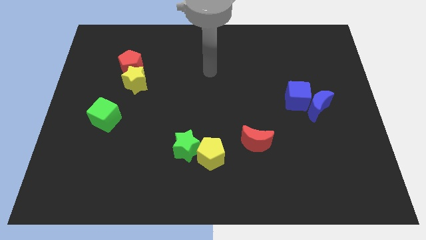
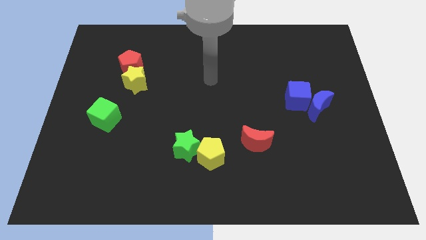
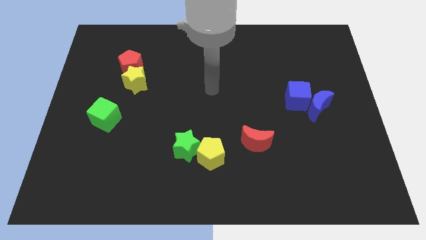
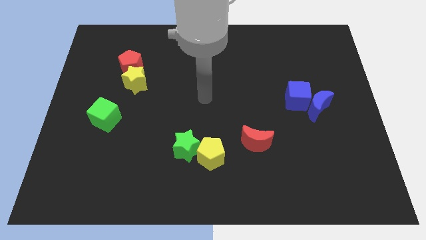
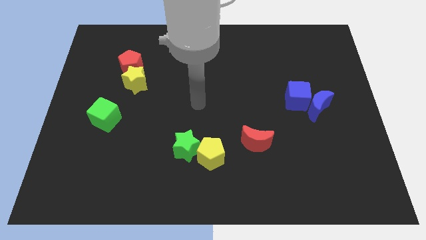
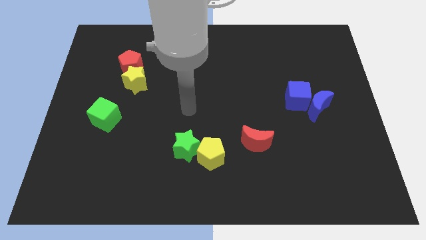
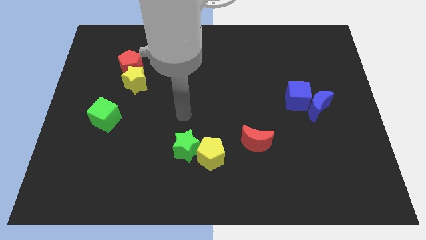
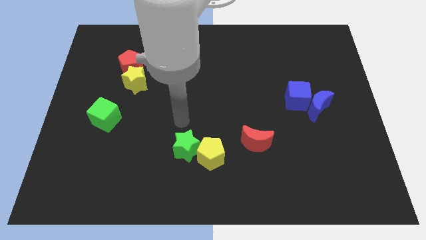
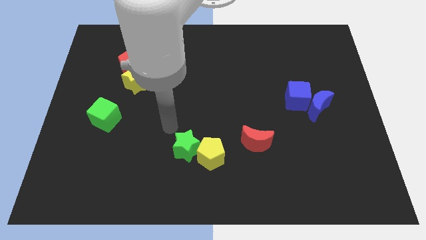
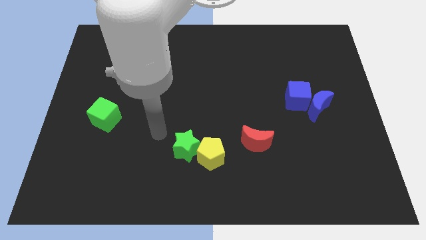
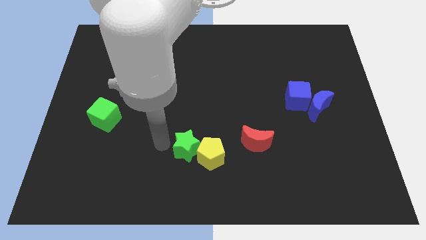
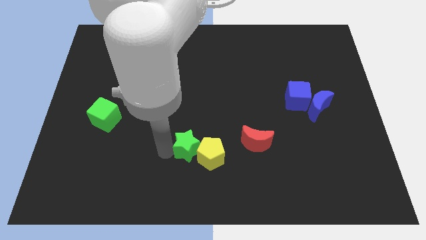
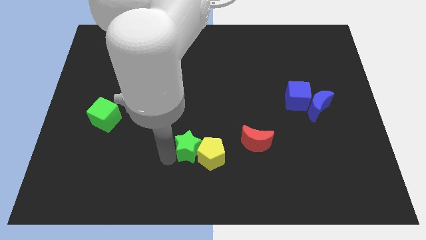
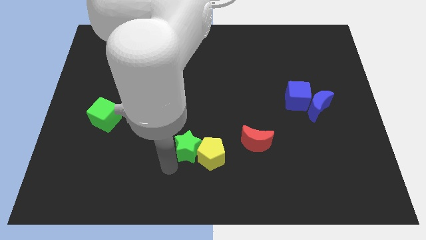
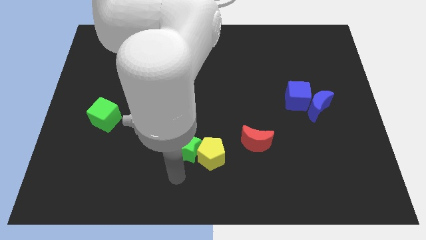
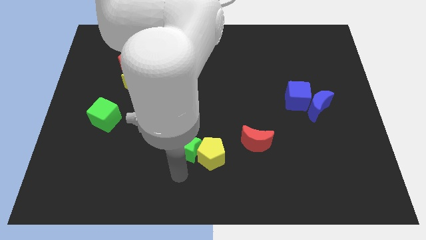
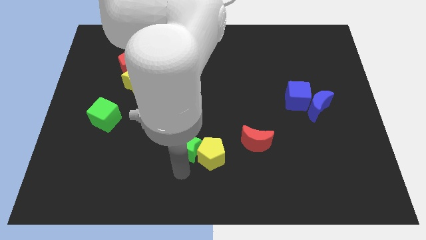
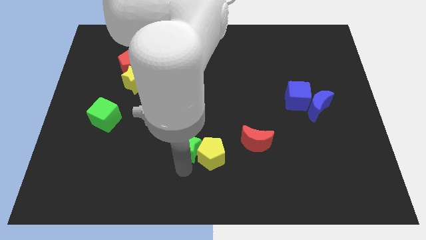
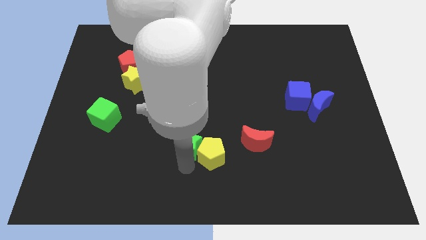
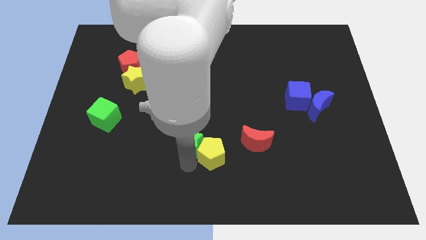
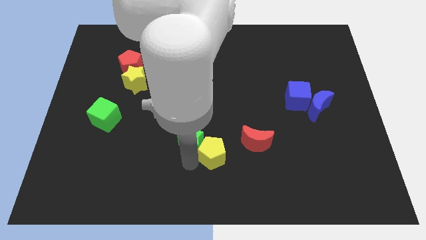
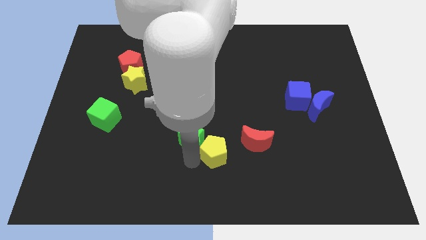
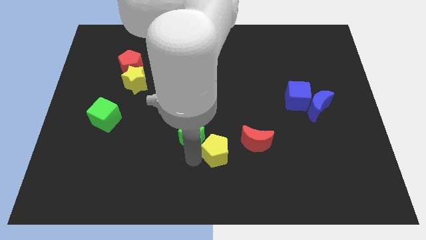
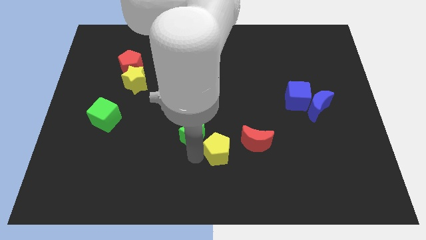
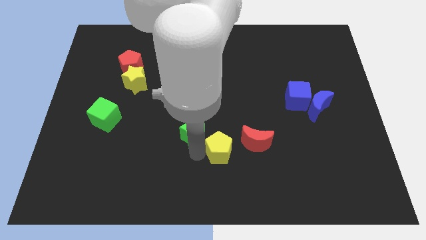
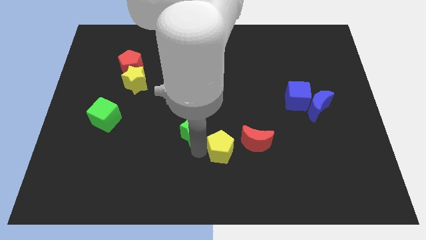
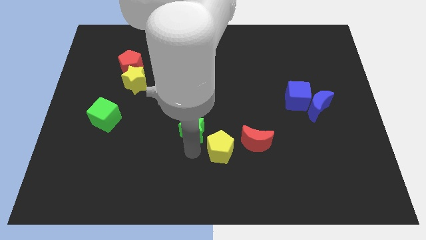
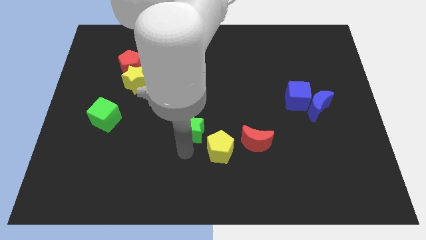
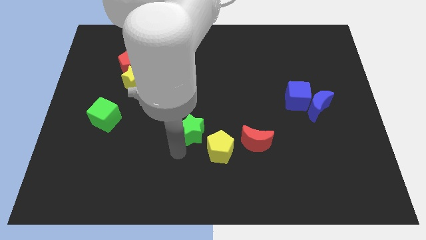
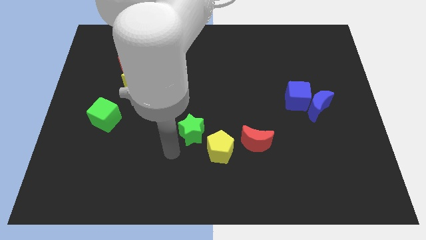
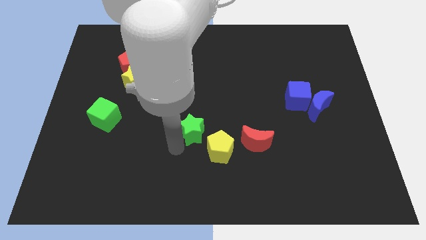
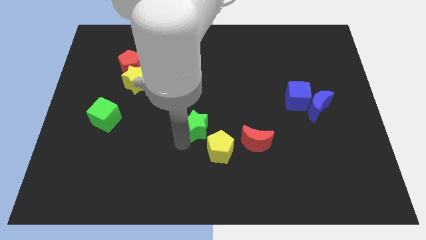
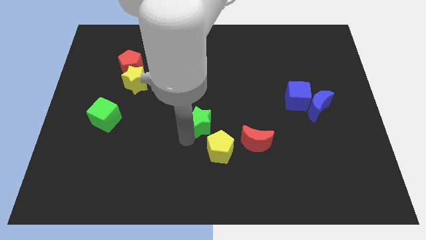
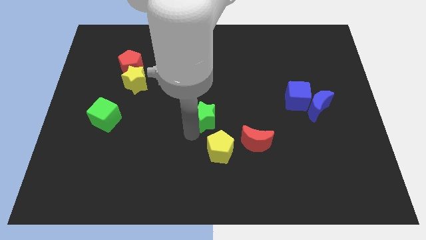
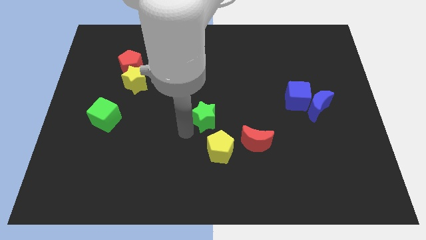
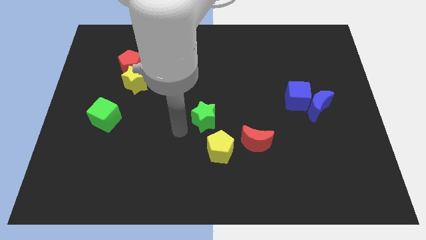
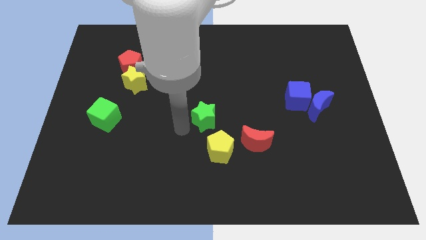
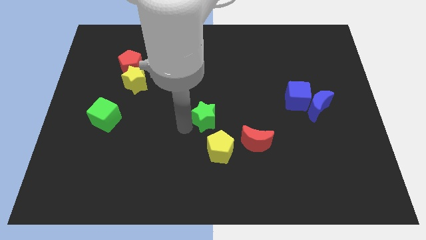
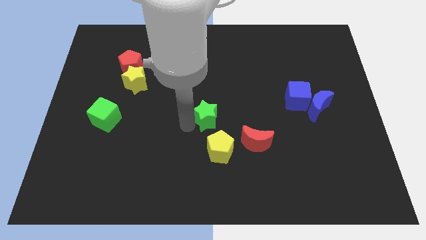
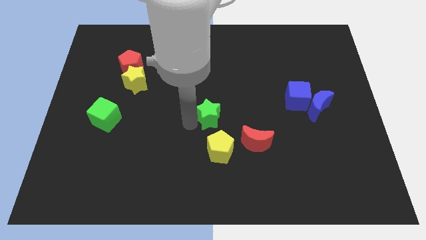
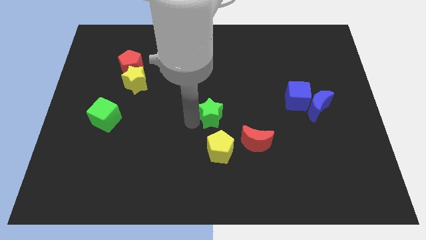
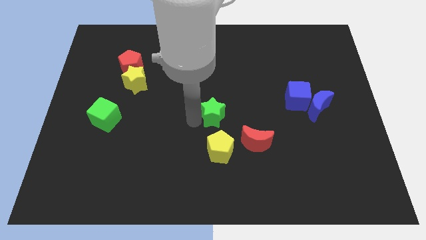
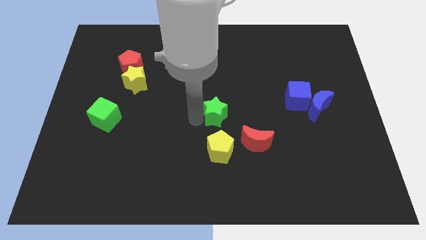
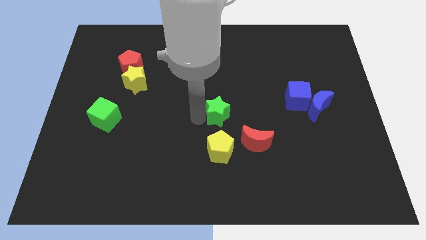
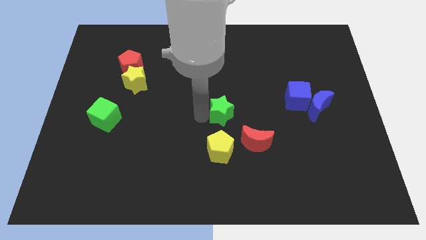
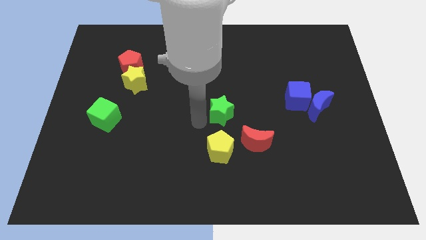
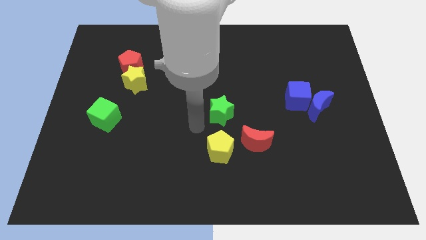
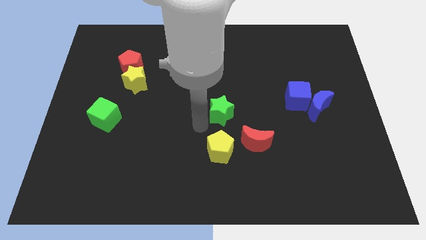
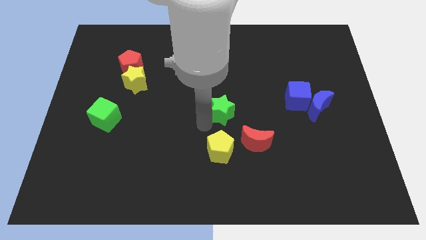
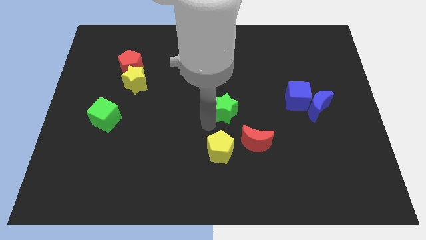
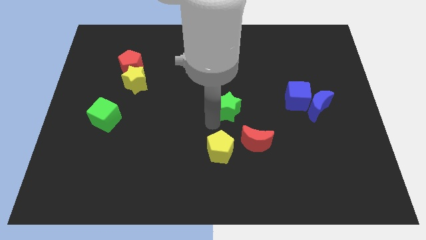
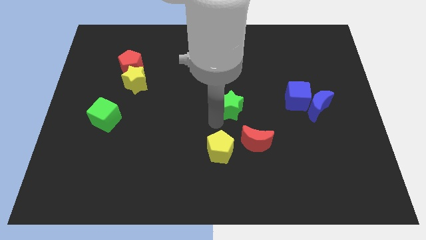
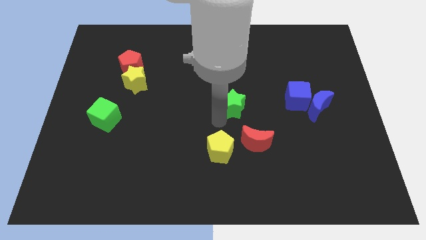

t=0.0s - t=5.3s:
slide the green star left of the blue cube

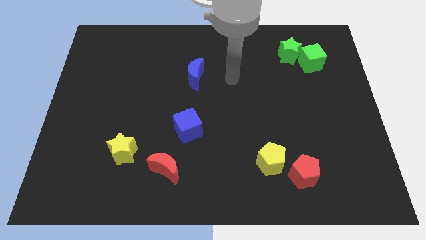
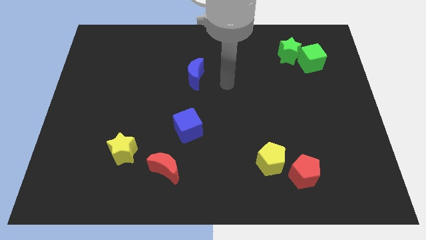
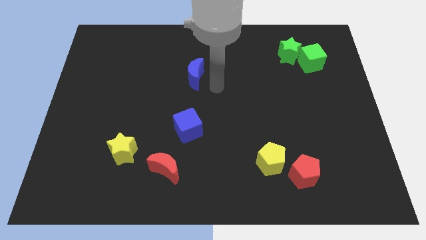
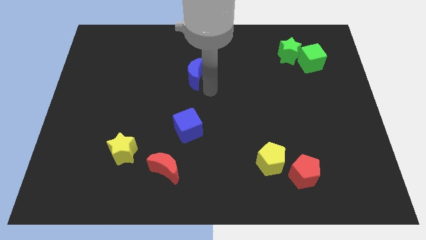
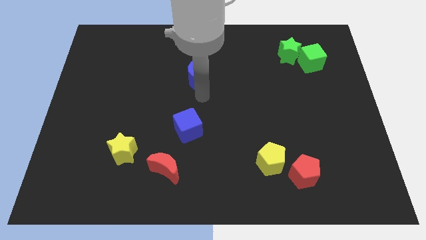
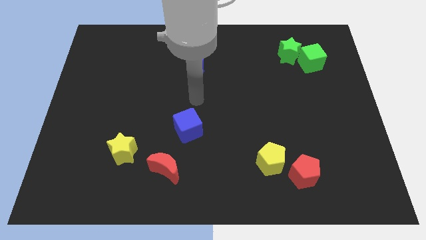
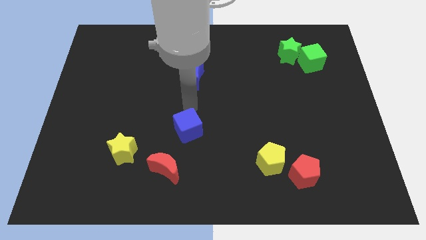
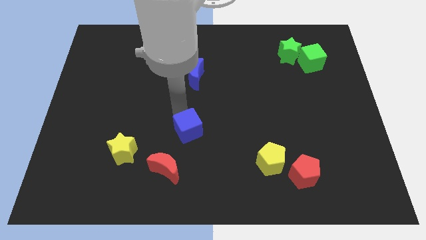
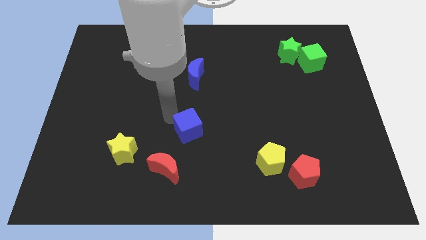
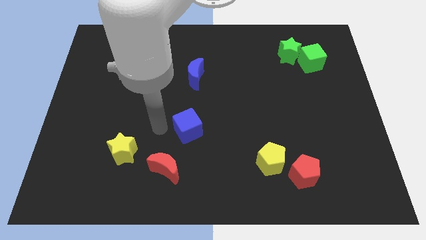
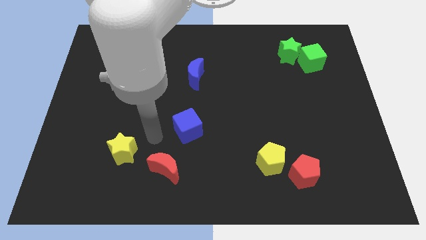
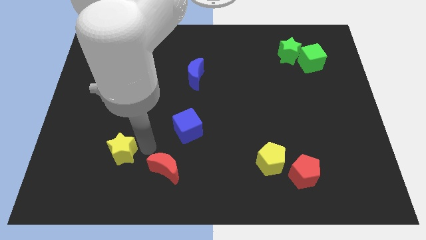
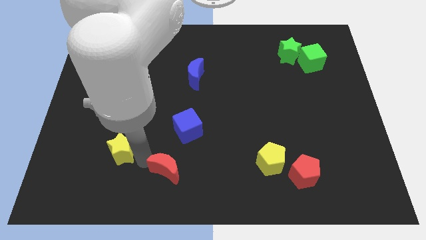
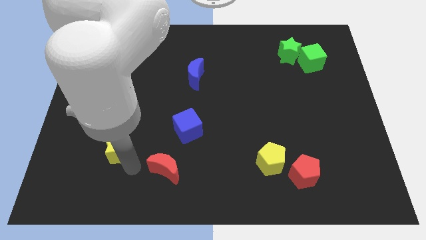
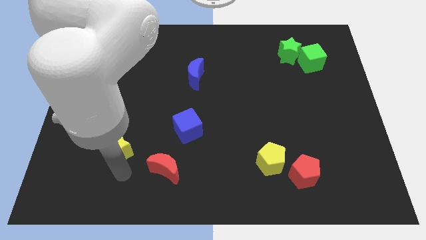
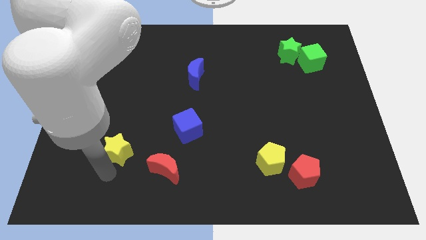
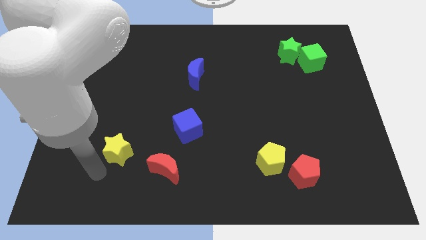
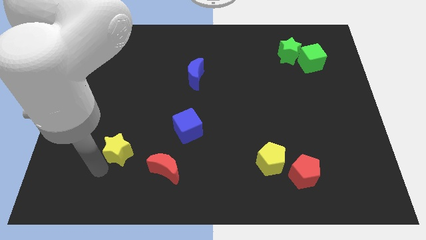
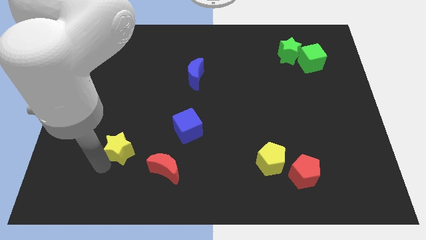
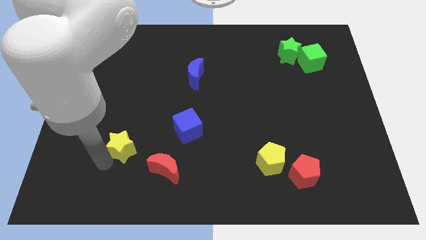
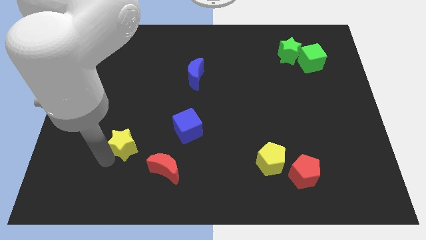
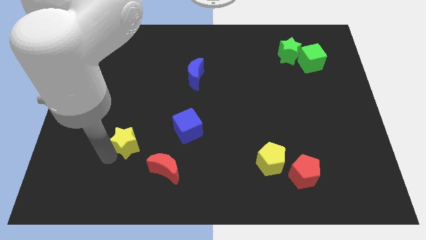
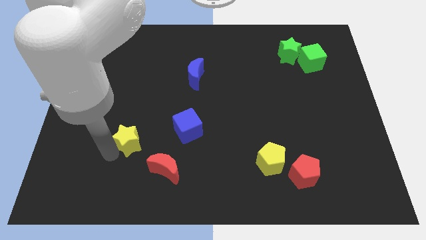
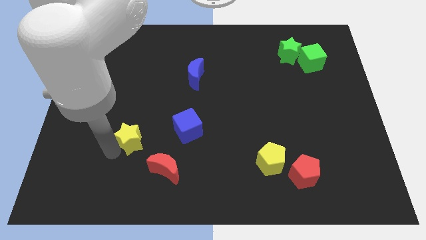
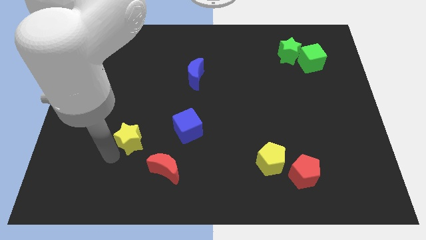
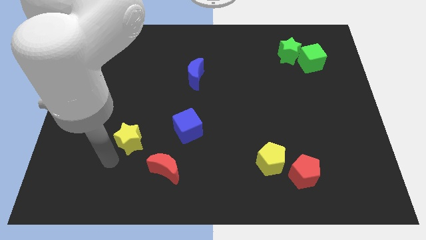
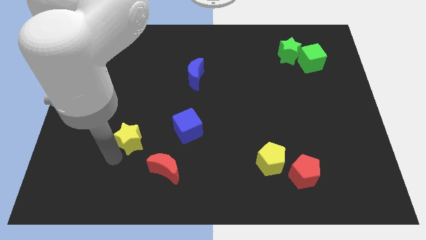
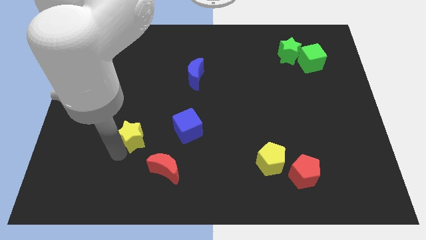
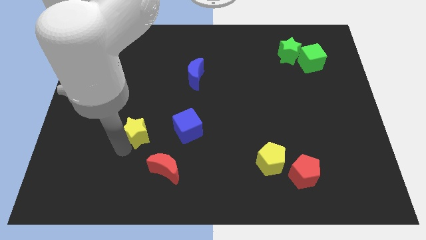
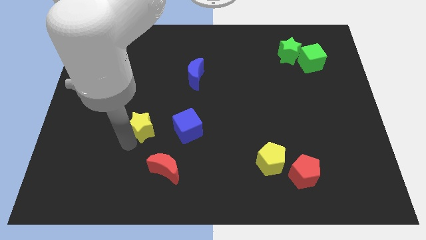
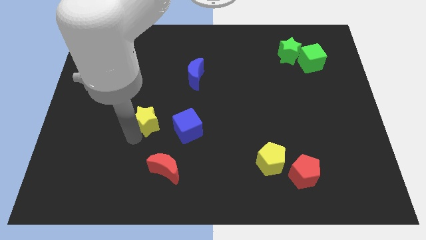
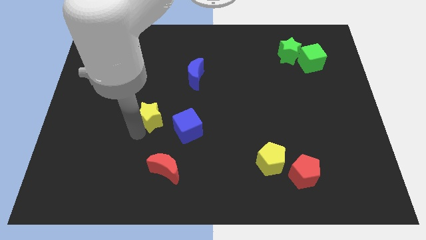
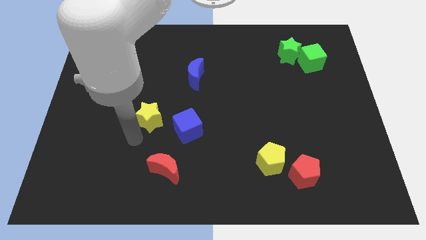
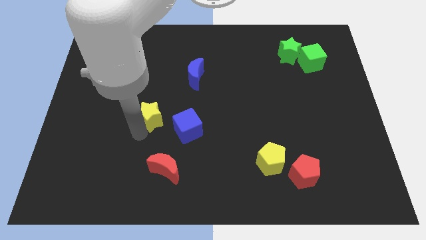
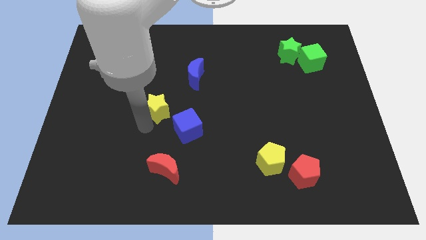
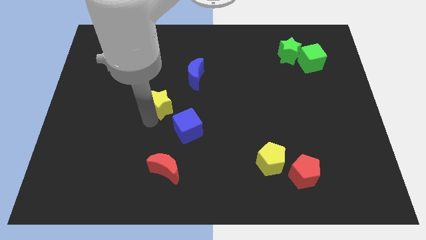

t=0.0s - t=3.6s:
move the yellow star diagonally down and to the left of the blue moon
